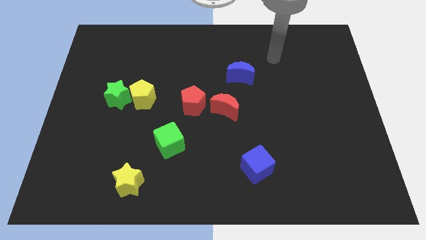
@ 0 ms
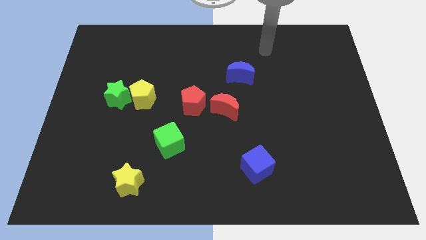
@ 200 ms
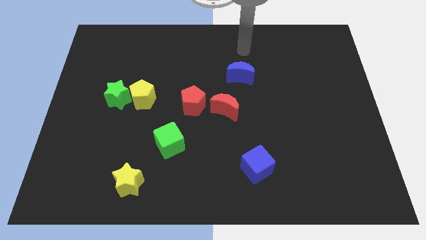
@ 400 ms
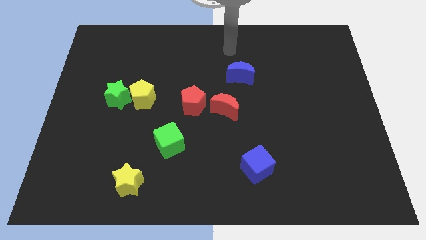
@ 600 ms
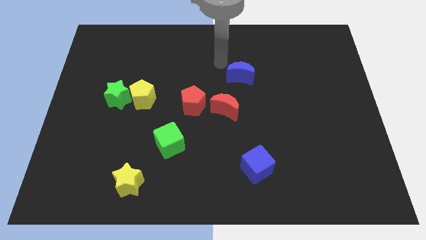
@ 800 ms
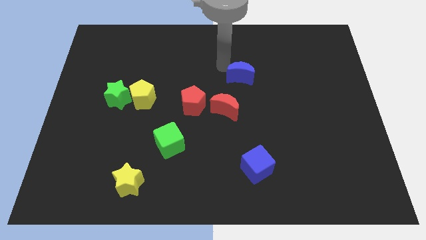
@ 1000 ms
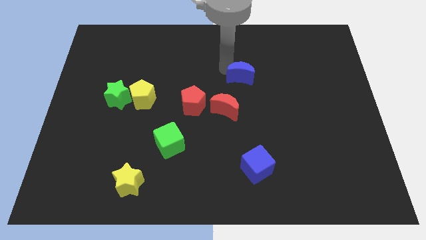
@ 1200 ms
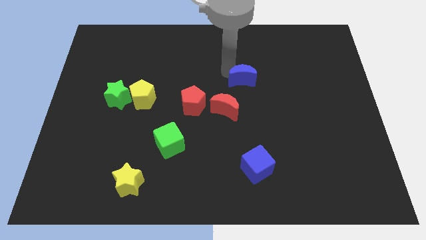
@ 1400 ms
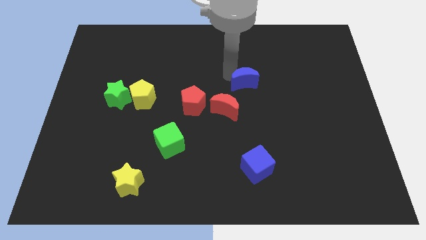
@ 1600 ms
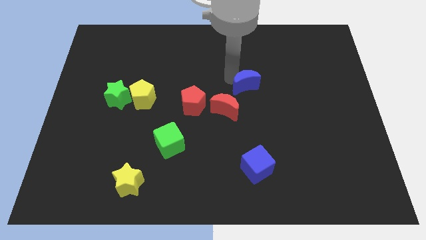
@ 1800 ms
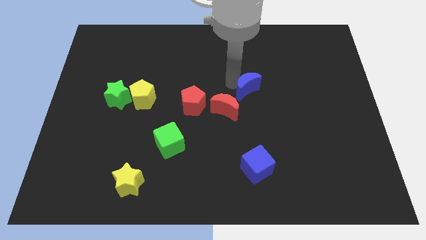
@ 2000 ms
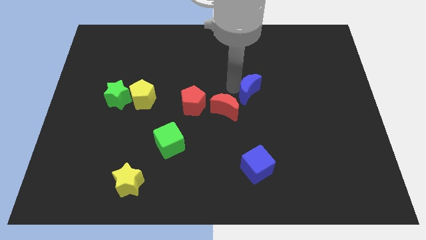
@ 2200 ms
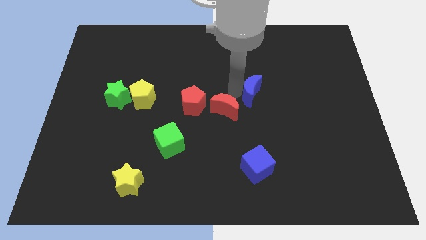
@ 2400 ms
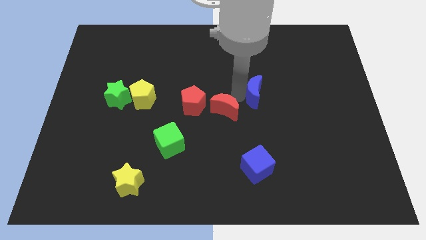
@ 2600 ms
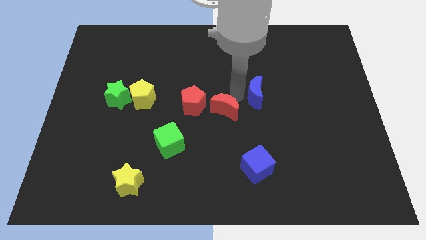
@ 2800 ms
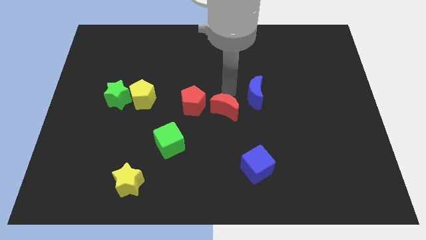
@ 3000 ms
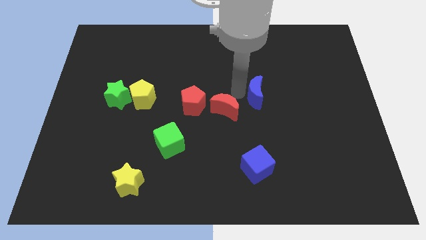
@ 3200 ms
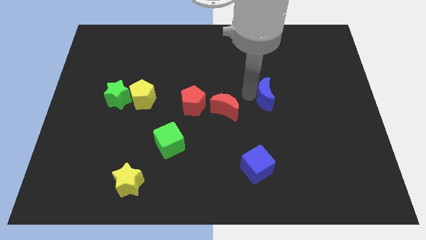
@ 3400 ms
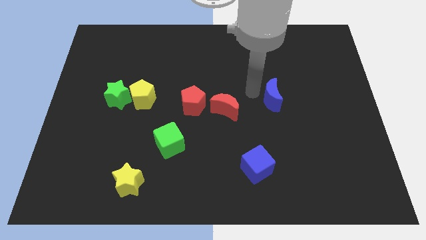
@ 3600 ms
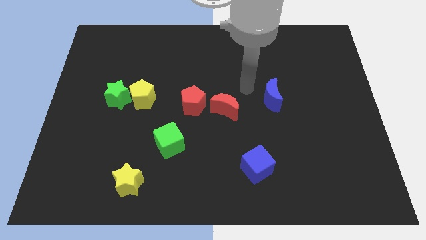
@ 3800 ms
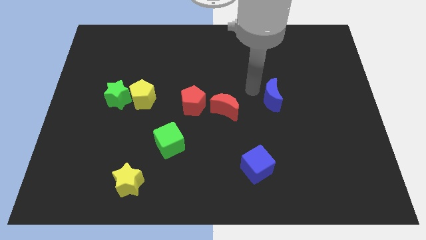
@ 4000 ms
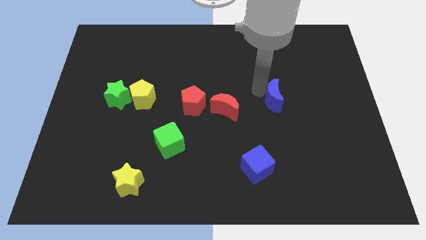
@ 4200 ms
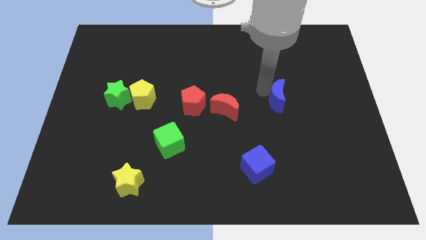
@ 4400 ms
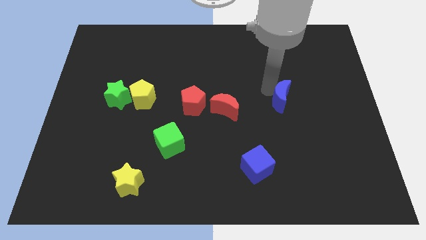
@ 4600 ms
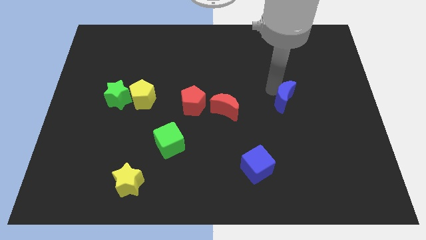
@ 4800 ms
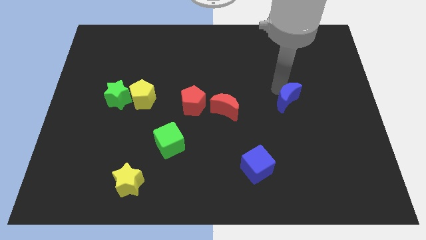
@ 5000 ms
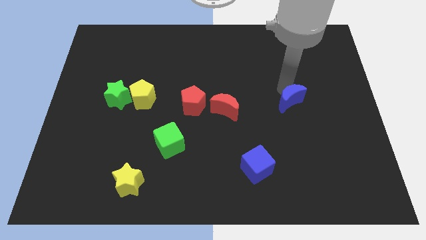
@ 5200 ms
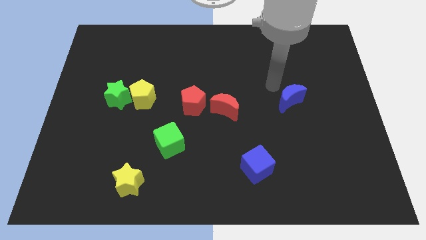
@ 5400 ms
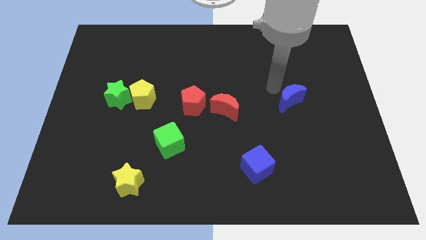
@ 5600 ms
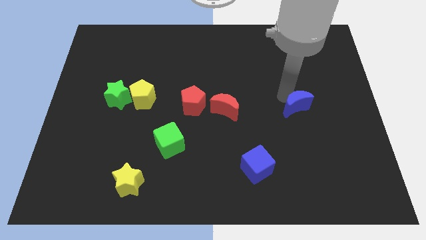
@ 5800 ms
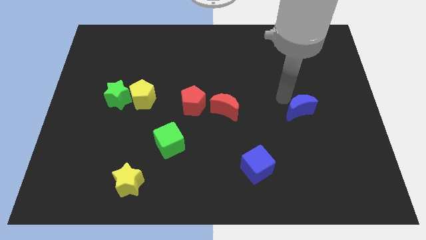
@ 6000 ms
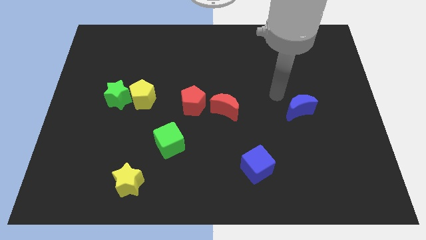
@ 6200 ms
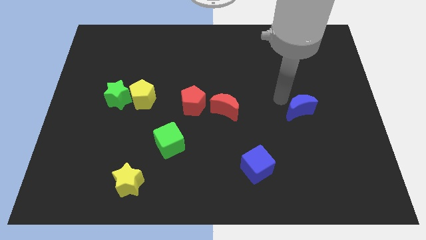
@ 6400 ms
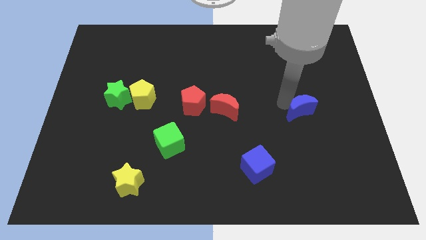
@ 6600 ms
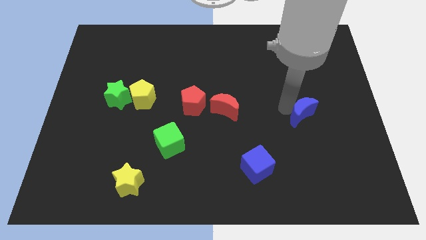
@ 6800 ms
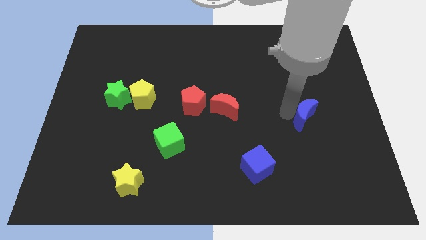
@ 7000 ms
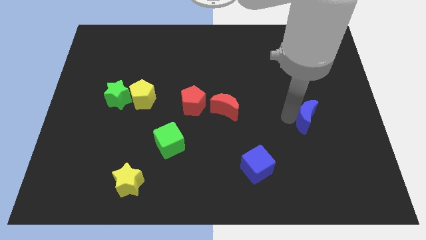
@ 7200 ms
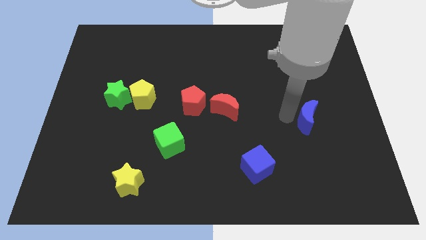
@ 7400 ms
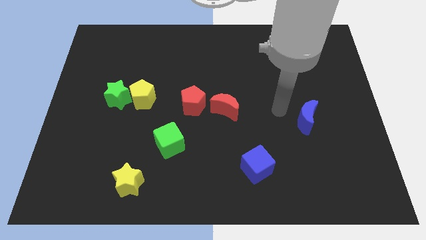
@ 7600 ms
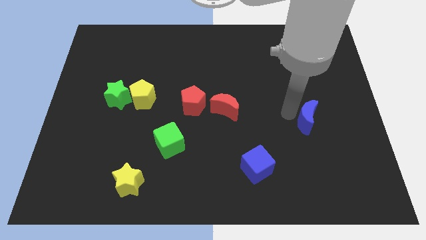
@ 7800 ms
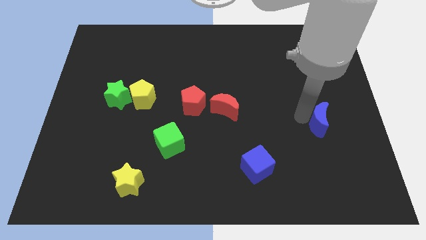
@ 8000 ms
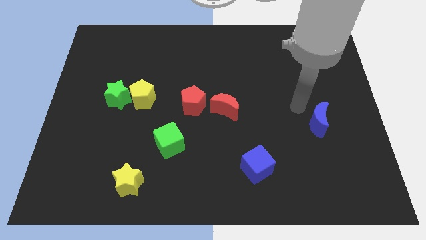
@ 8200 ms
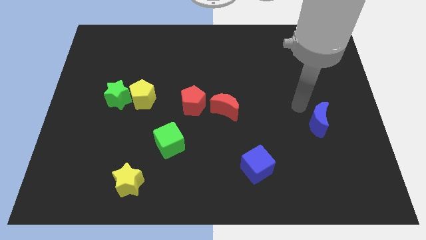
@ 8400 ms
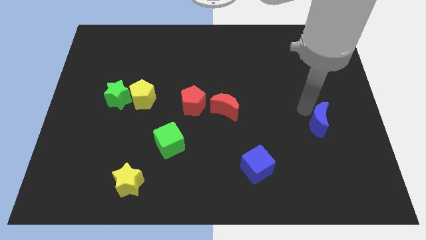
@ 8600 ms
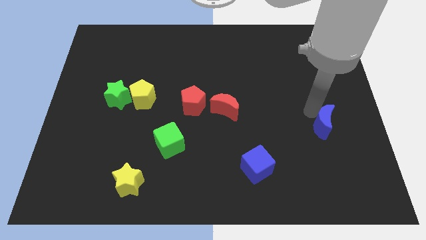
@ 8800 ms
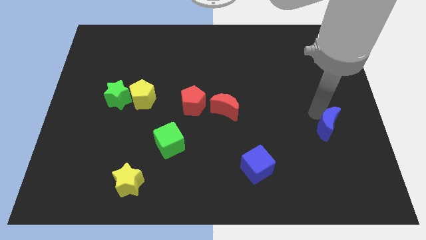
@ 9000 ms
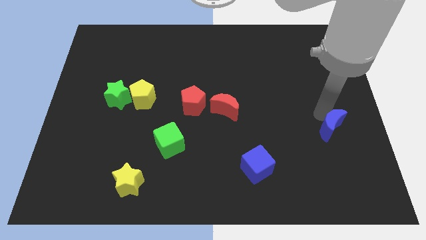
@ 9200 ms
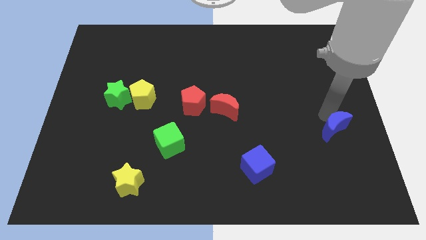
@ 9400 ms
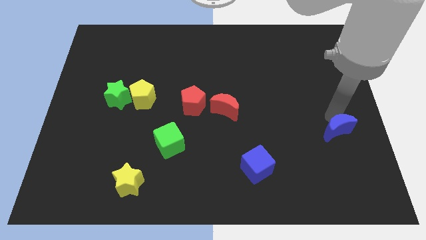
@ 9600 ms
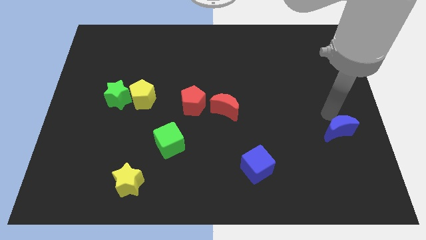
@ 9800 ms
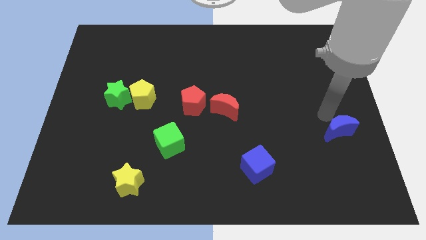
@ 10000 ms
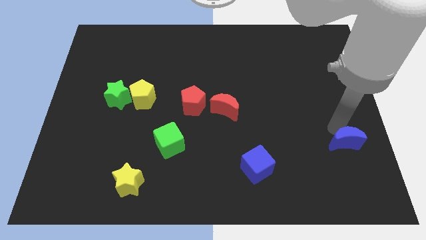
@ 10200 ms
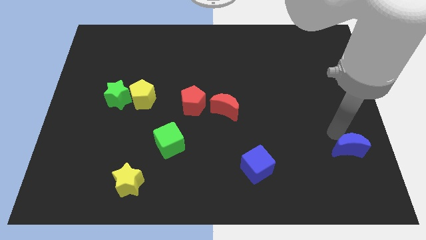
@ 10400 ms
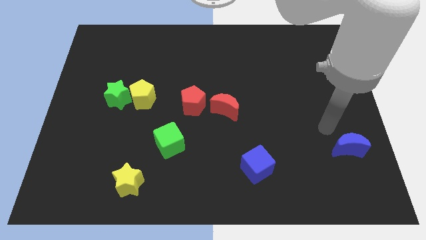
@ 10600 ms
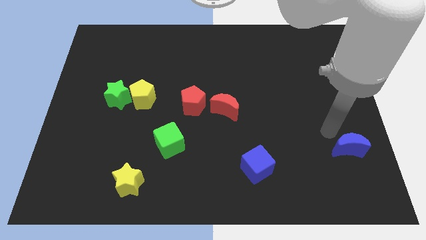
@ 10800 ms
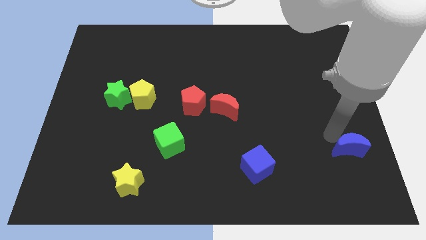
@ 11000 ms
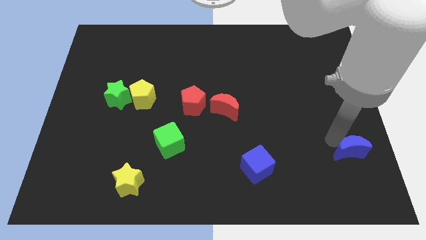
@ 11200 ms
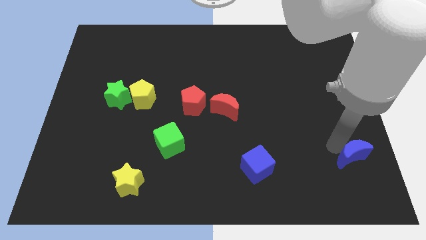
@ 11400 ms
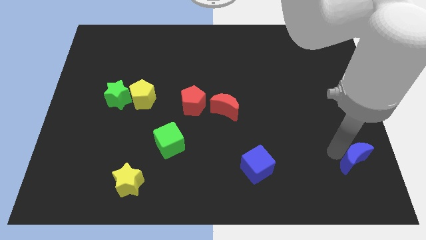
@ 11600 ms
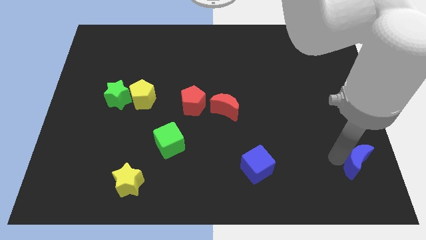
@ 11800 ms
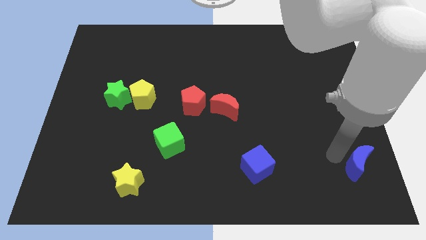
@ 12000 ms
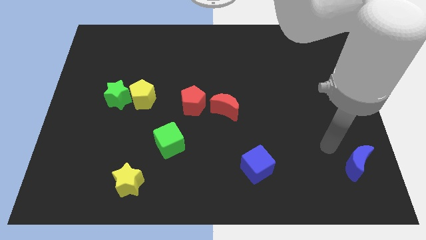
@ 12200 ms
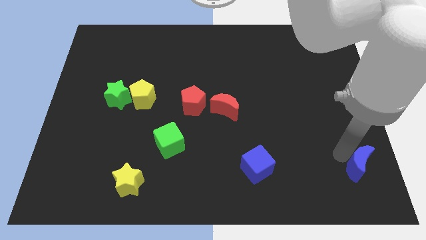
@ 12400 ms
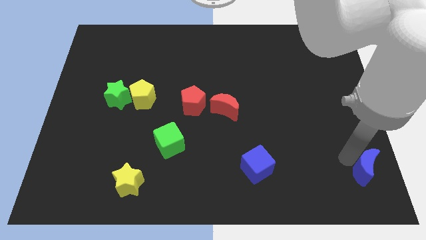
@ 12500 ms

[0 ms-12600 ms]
move the blue moon to the bottom right

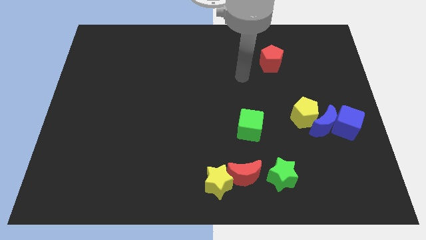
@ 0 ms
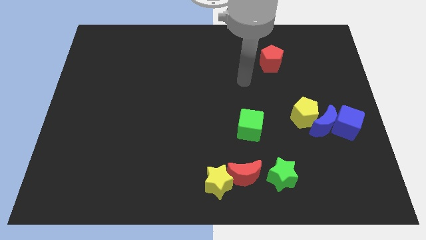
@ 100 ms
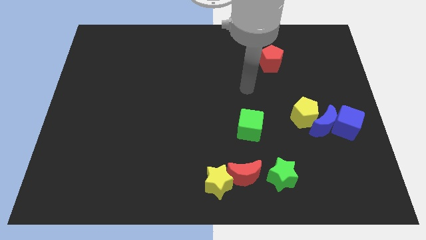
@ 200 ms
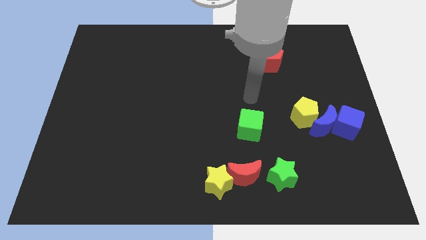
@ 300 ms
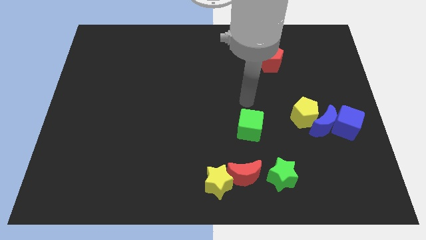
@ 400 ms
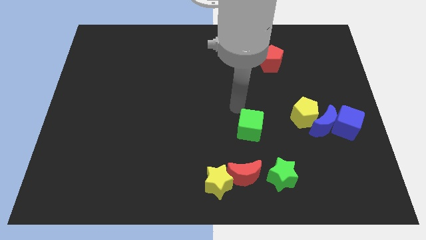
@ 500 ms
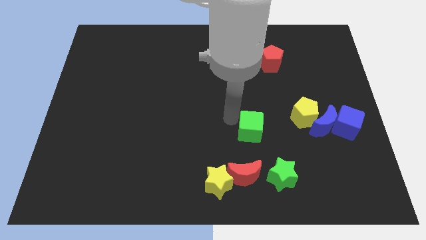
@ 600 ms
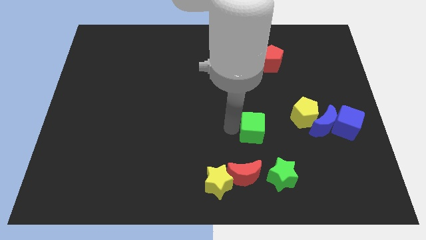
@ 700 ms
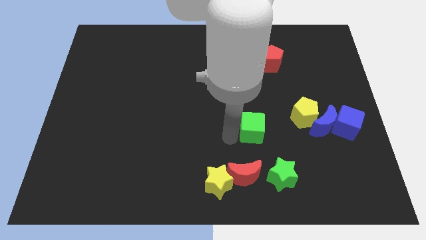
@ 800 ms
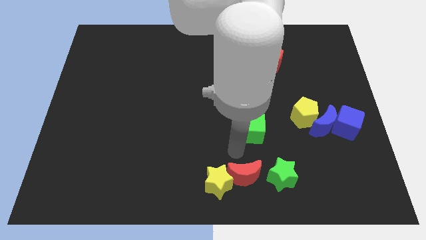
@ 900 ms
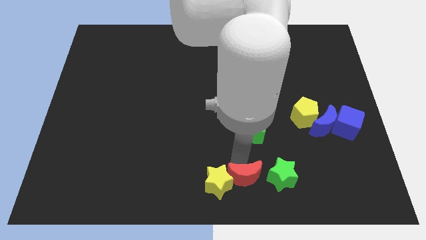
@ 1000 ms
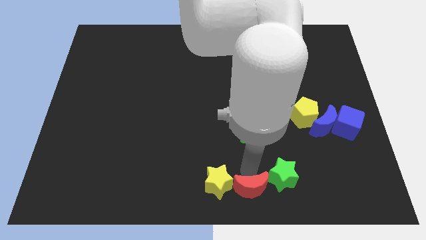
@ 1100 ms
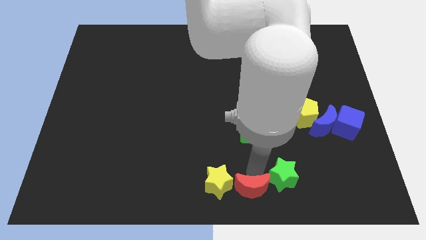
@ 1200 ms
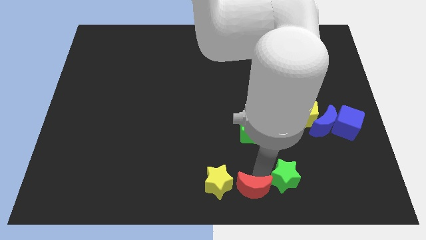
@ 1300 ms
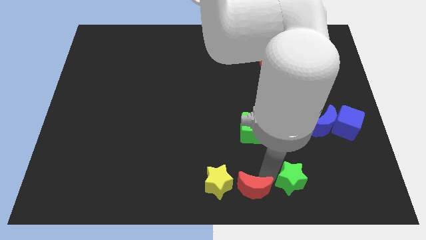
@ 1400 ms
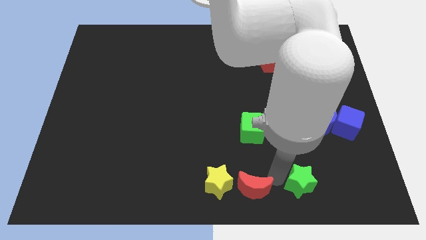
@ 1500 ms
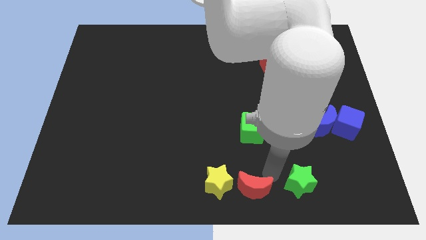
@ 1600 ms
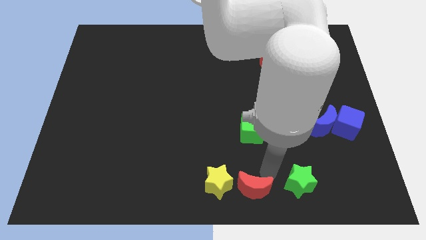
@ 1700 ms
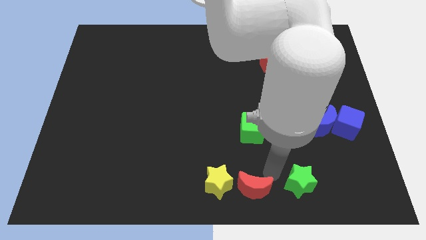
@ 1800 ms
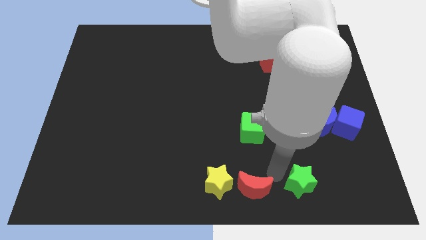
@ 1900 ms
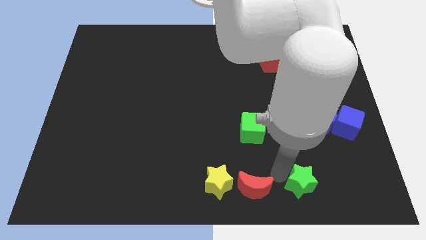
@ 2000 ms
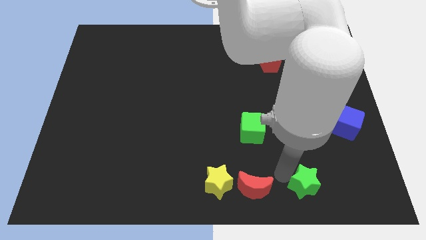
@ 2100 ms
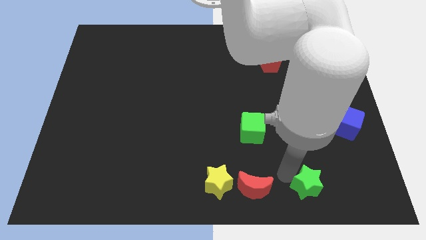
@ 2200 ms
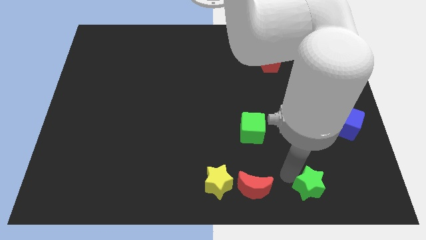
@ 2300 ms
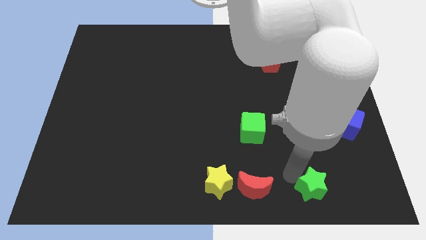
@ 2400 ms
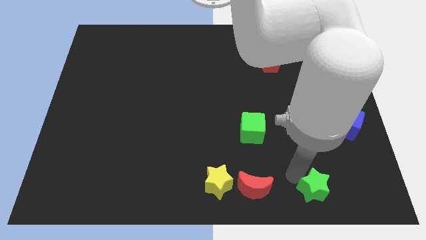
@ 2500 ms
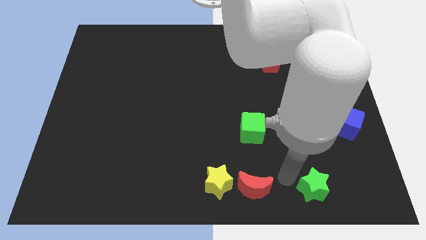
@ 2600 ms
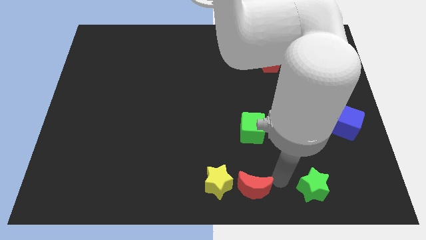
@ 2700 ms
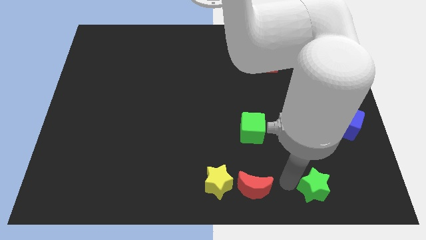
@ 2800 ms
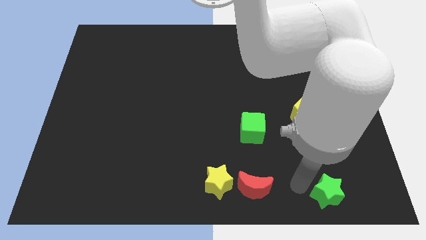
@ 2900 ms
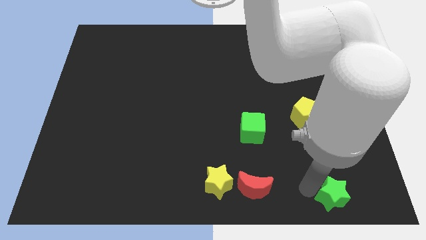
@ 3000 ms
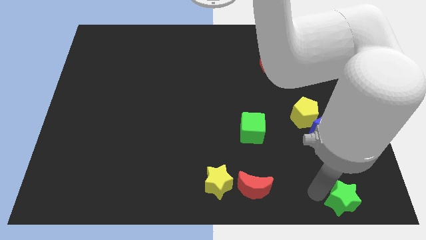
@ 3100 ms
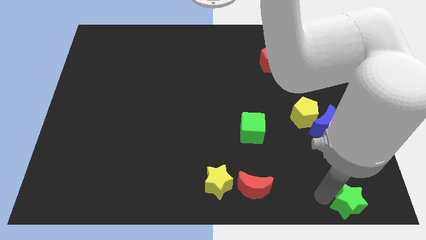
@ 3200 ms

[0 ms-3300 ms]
put the green star to the bottom right of the board
